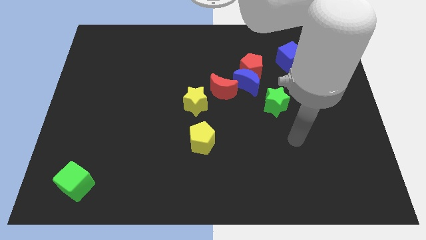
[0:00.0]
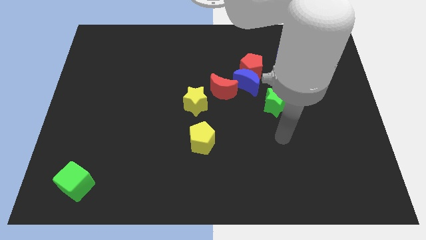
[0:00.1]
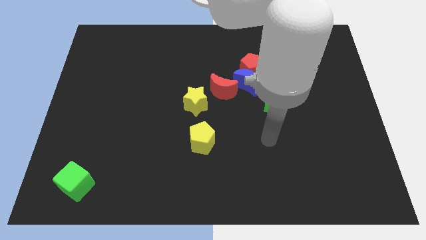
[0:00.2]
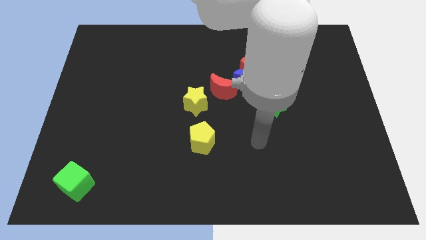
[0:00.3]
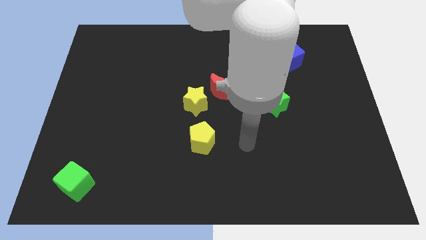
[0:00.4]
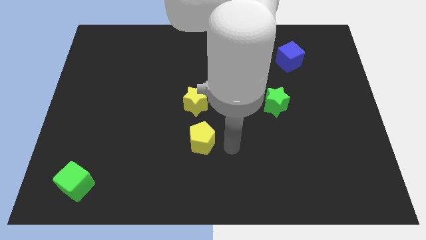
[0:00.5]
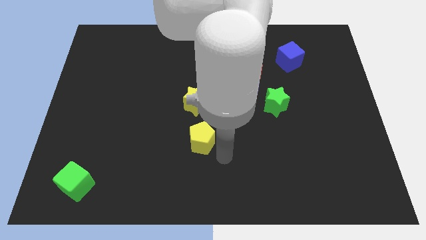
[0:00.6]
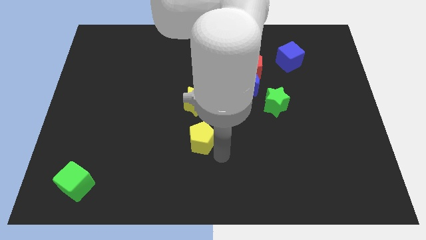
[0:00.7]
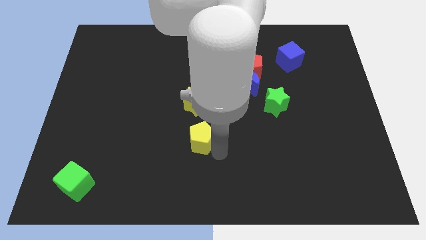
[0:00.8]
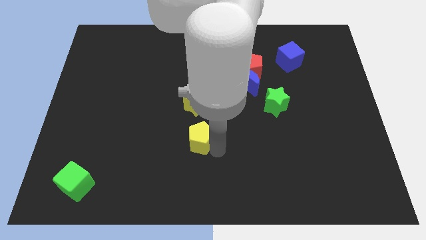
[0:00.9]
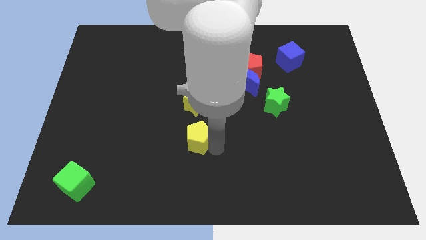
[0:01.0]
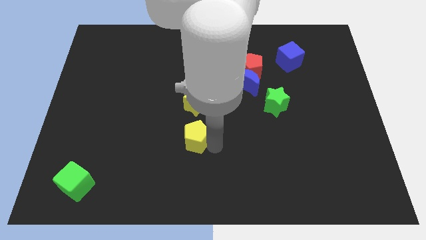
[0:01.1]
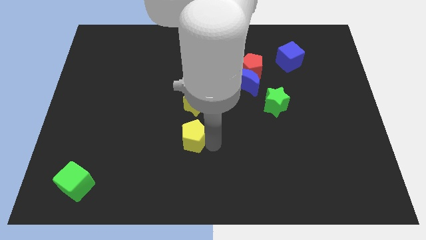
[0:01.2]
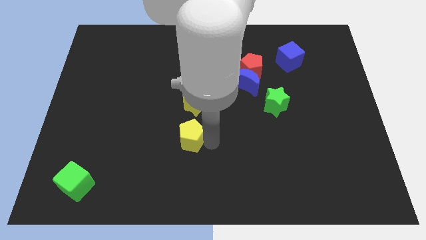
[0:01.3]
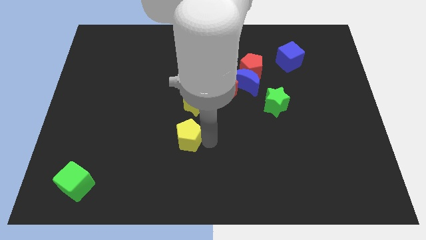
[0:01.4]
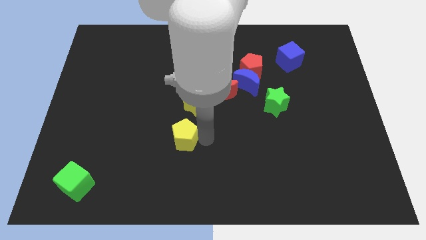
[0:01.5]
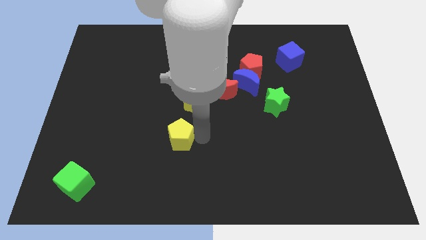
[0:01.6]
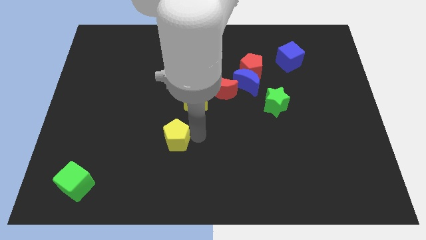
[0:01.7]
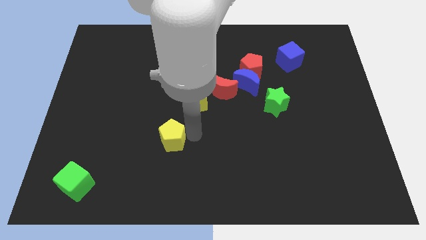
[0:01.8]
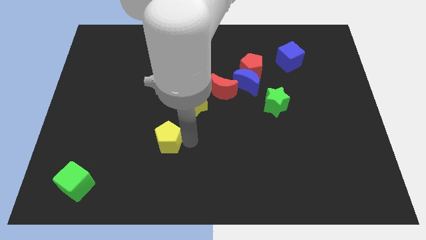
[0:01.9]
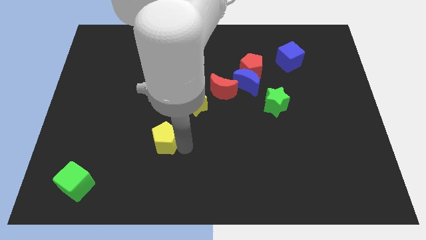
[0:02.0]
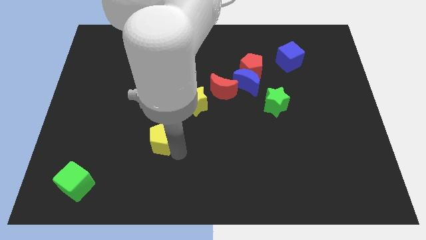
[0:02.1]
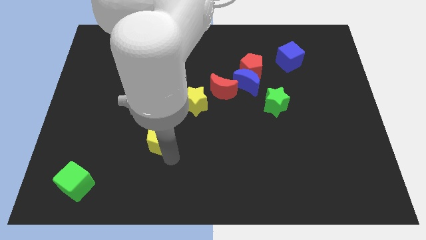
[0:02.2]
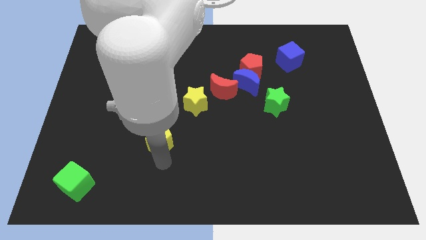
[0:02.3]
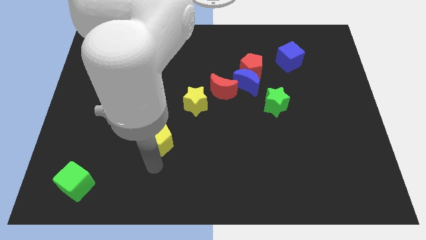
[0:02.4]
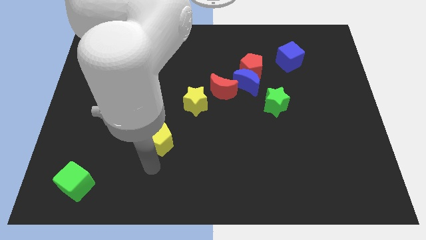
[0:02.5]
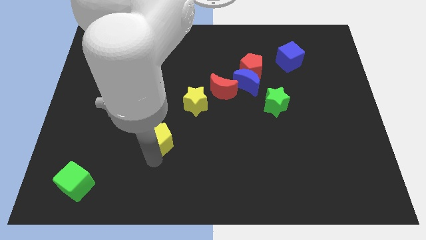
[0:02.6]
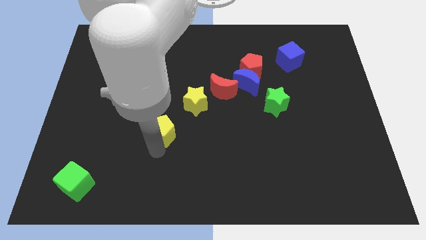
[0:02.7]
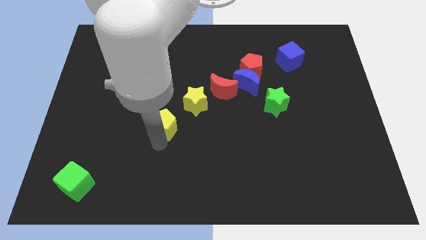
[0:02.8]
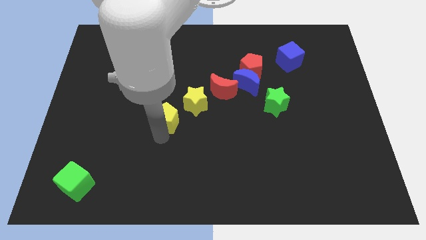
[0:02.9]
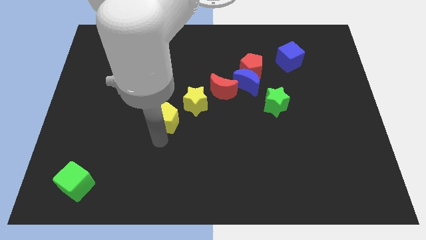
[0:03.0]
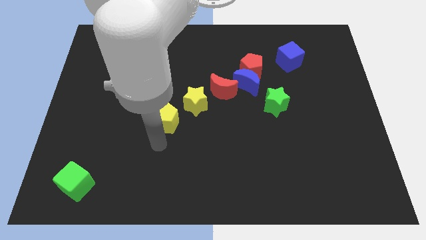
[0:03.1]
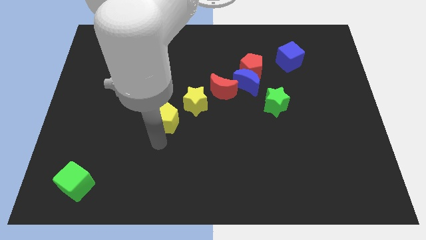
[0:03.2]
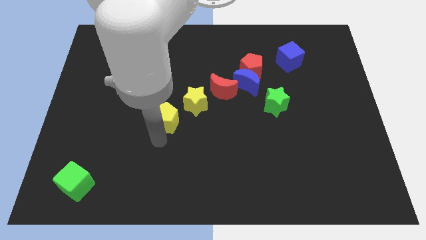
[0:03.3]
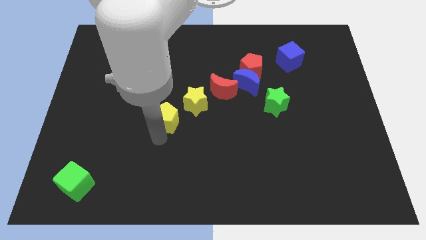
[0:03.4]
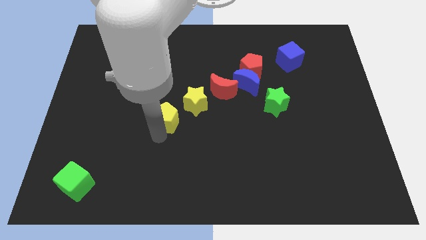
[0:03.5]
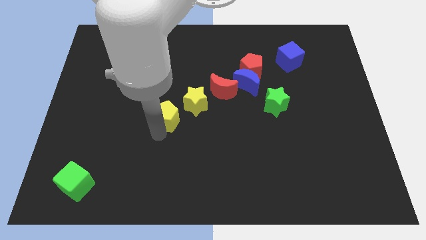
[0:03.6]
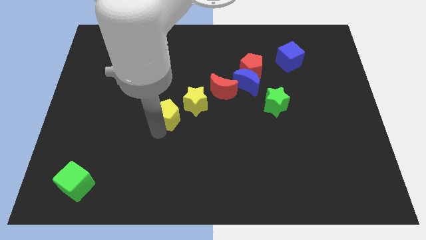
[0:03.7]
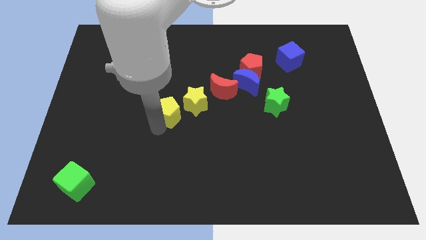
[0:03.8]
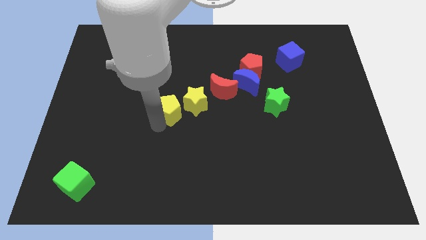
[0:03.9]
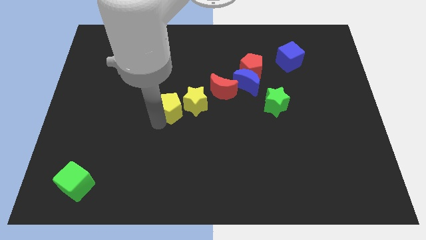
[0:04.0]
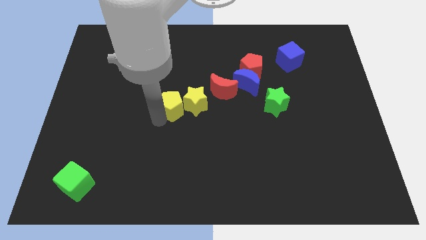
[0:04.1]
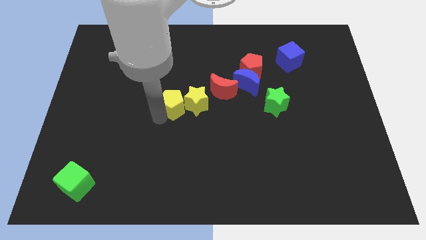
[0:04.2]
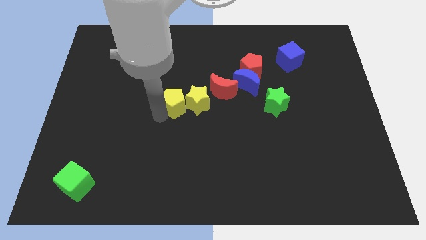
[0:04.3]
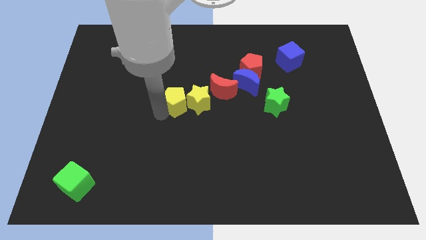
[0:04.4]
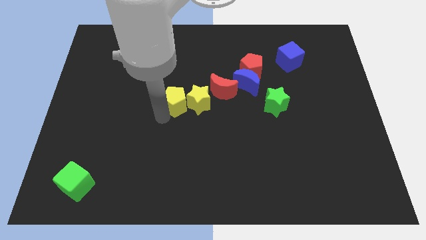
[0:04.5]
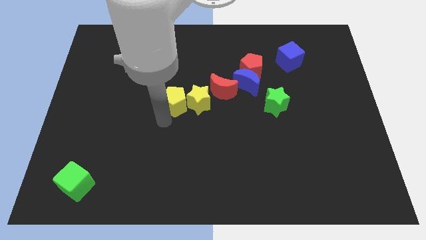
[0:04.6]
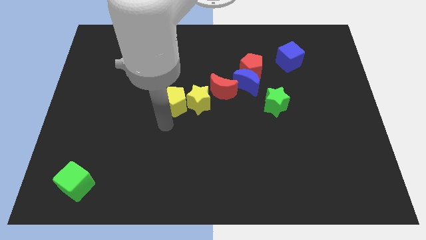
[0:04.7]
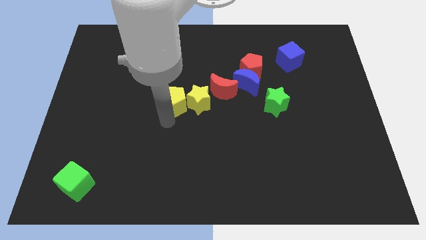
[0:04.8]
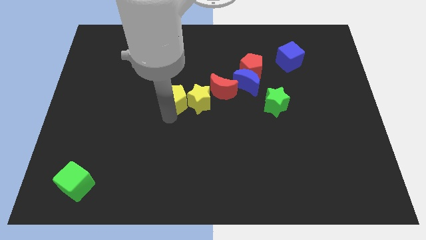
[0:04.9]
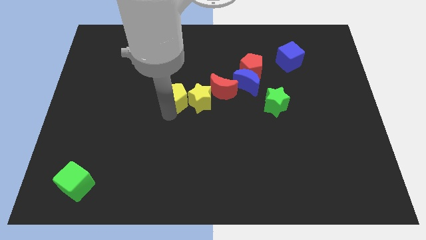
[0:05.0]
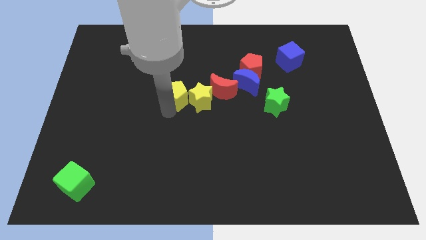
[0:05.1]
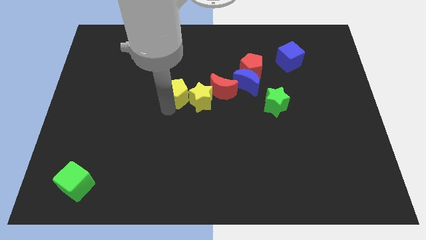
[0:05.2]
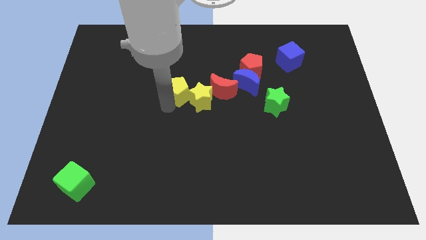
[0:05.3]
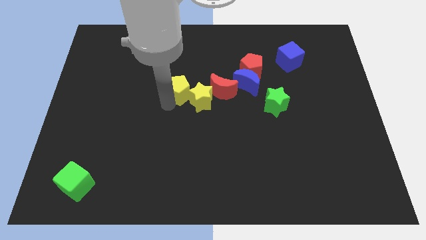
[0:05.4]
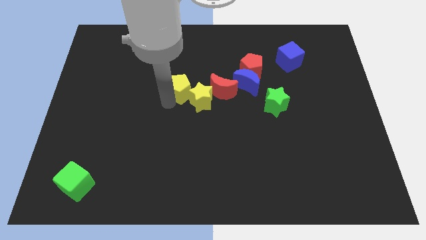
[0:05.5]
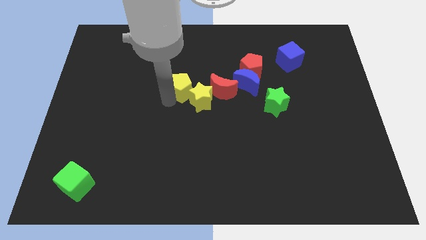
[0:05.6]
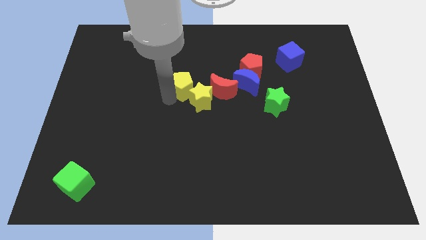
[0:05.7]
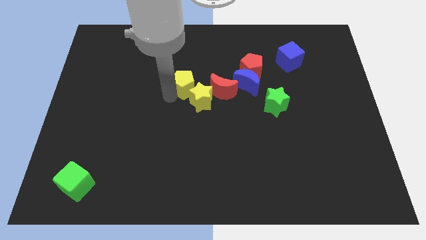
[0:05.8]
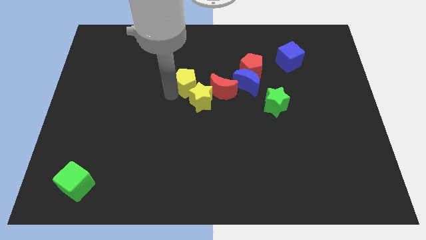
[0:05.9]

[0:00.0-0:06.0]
push the yellow pentagon to the top left of the red moon
